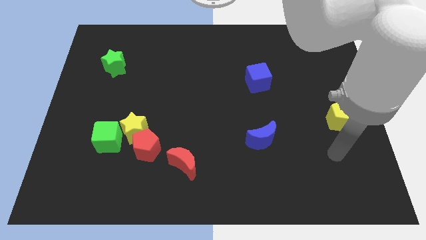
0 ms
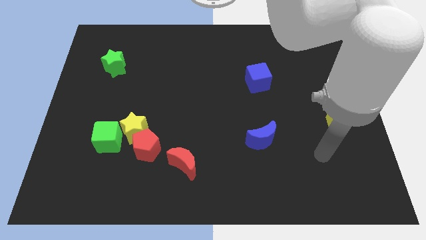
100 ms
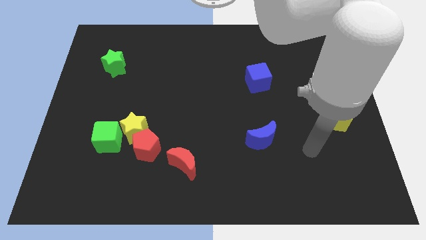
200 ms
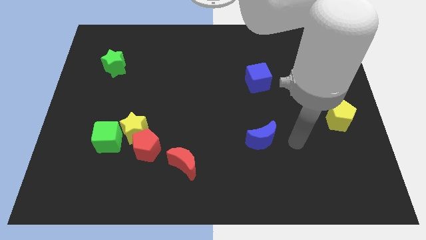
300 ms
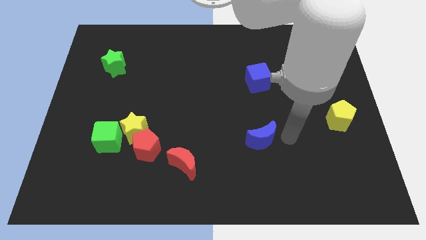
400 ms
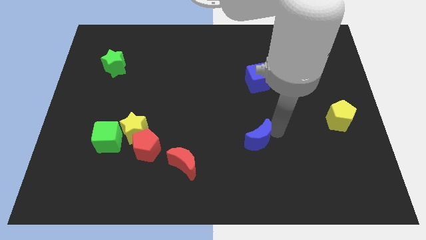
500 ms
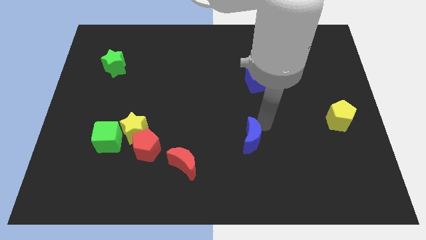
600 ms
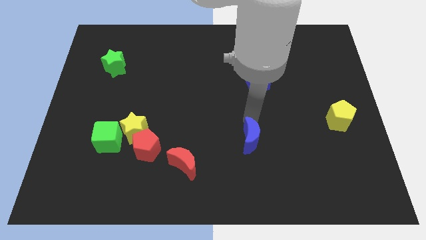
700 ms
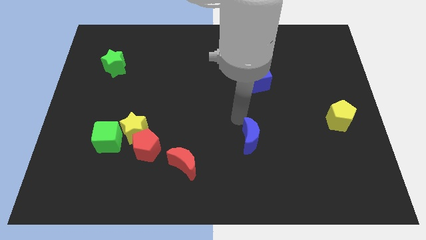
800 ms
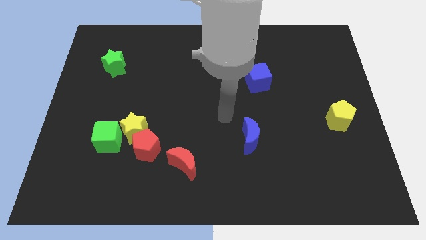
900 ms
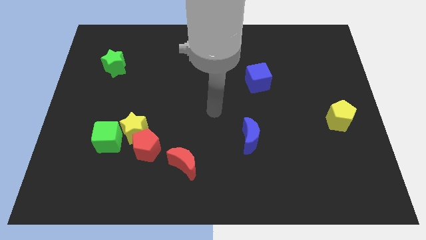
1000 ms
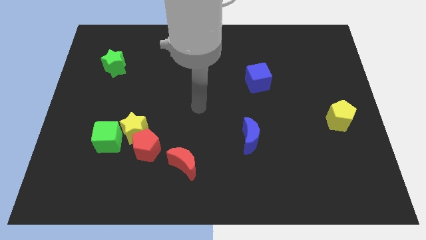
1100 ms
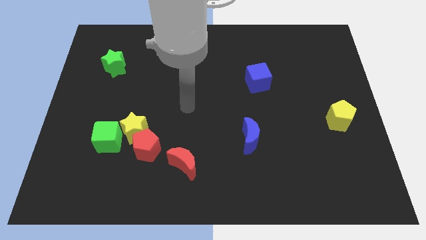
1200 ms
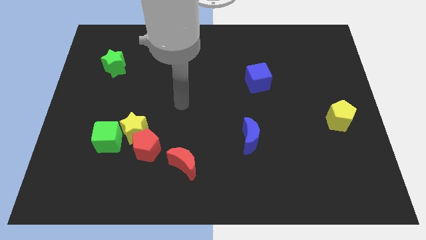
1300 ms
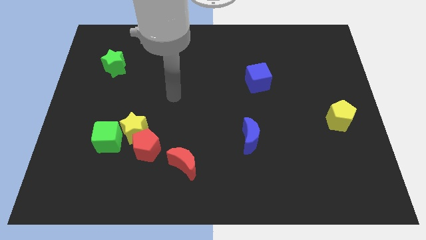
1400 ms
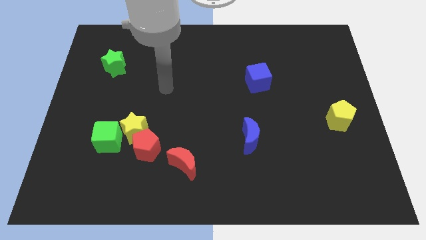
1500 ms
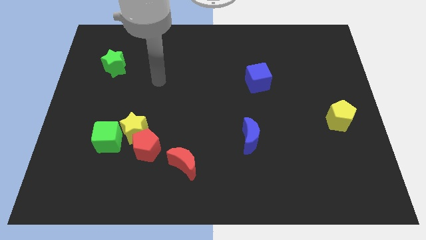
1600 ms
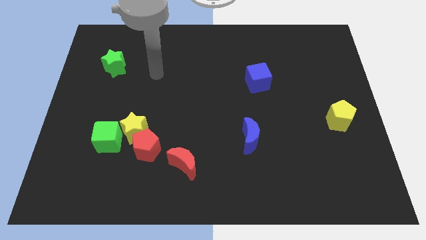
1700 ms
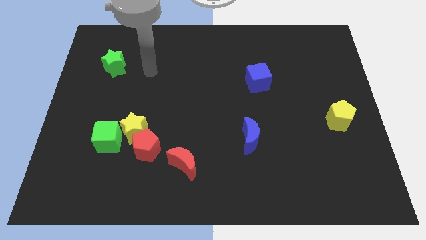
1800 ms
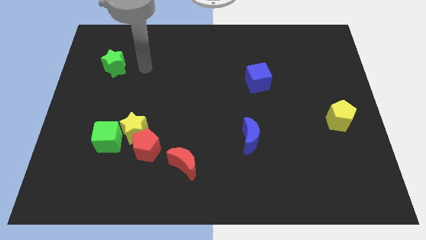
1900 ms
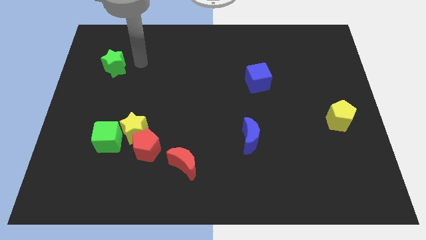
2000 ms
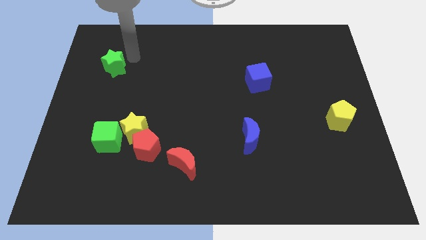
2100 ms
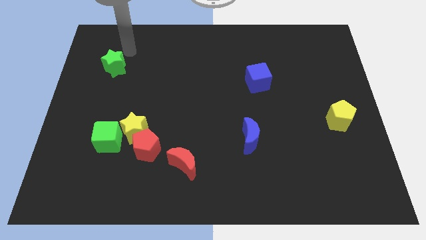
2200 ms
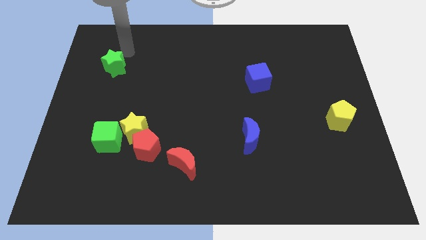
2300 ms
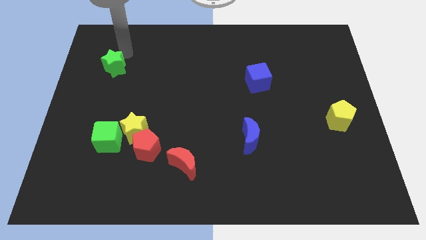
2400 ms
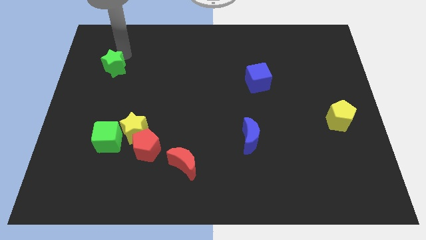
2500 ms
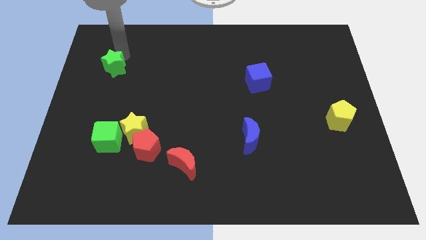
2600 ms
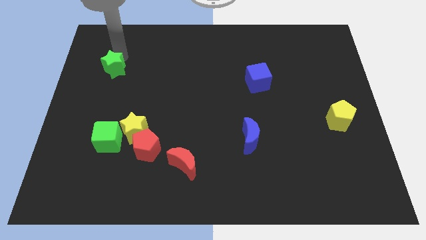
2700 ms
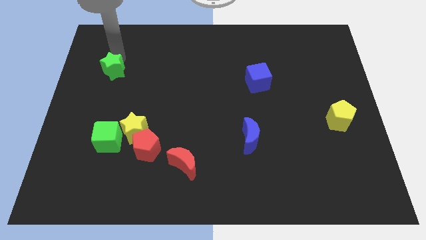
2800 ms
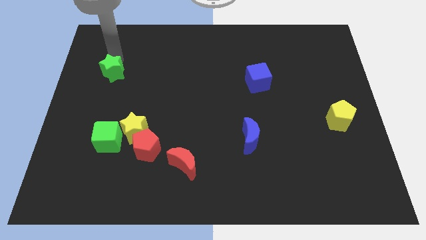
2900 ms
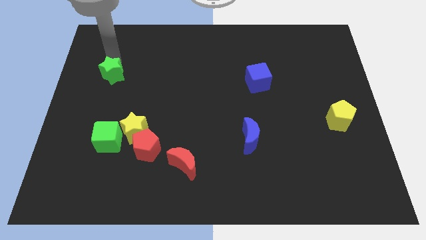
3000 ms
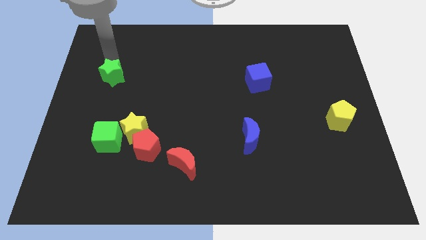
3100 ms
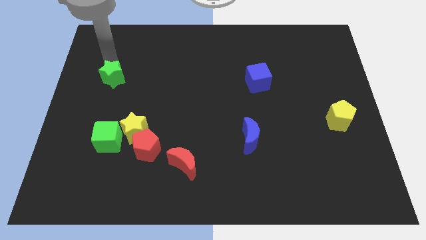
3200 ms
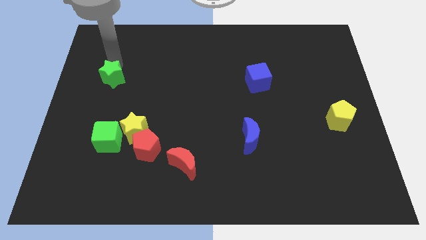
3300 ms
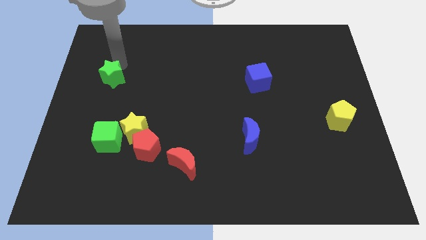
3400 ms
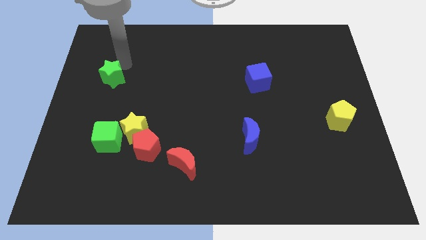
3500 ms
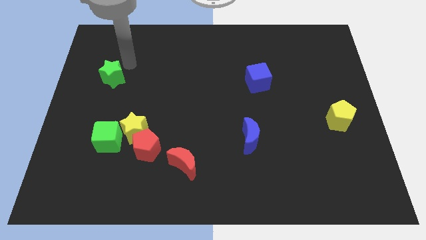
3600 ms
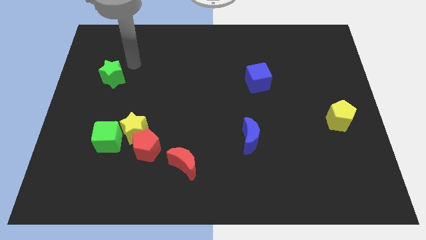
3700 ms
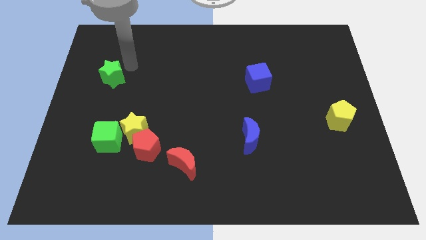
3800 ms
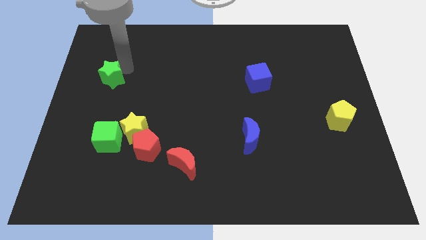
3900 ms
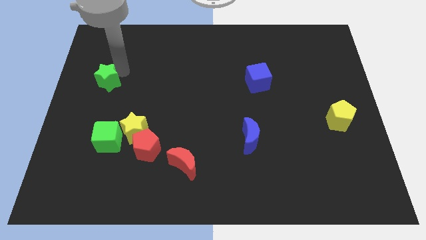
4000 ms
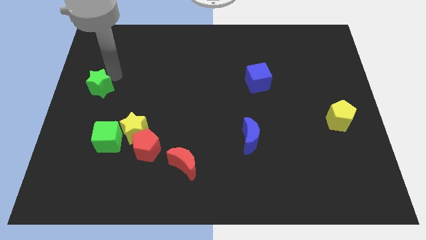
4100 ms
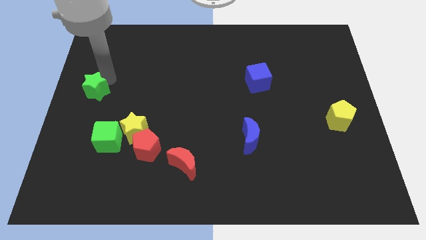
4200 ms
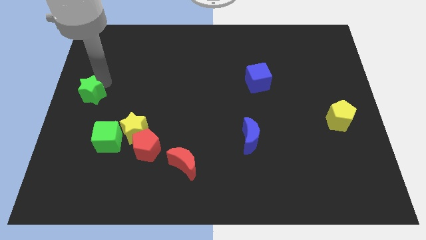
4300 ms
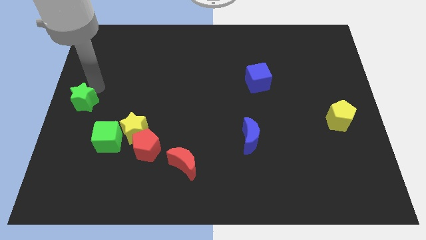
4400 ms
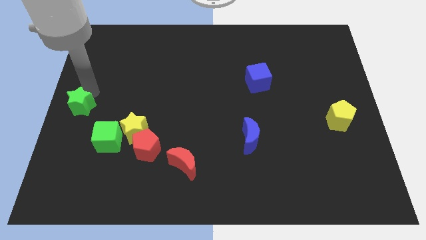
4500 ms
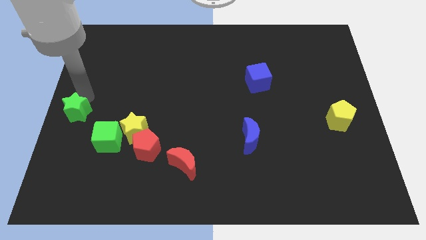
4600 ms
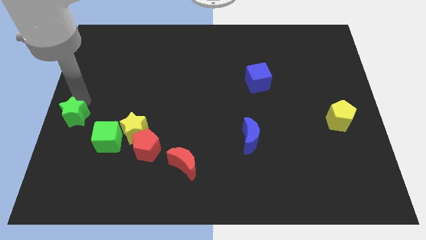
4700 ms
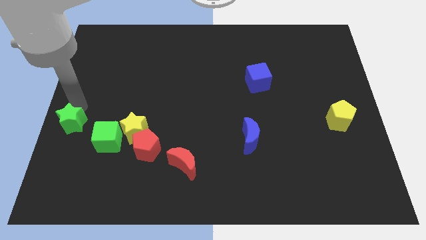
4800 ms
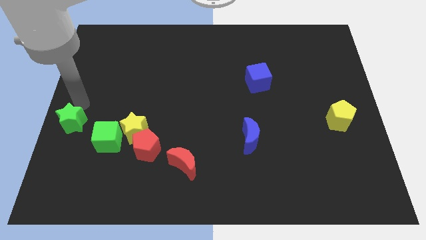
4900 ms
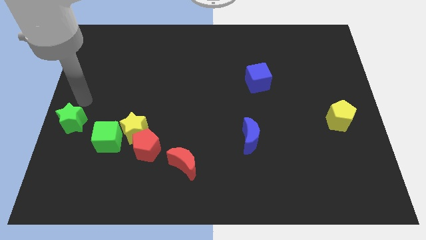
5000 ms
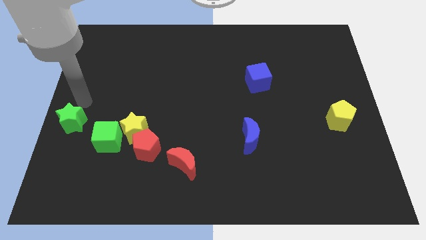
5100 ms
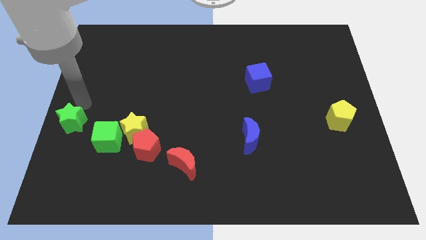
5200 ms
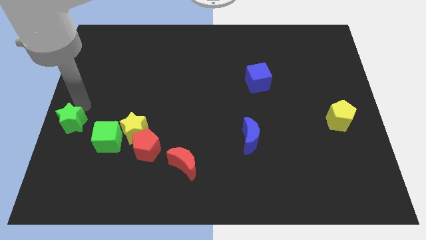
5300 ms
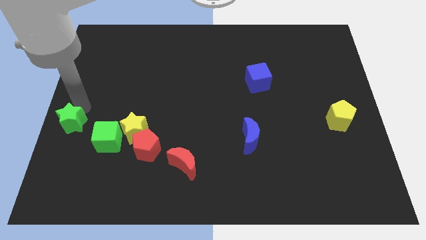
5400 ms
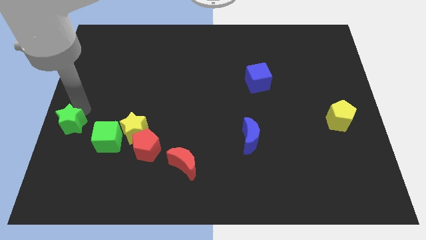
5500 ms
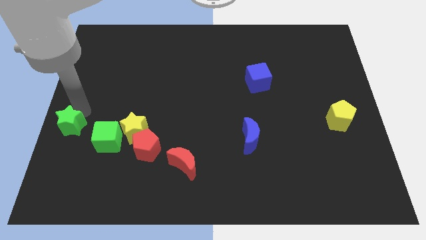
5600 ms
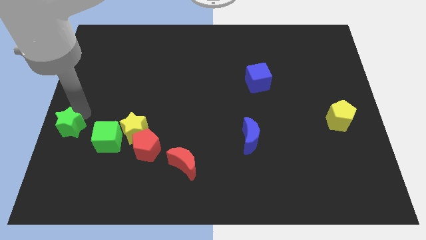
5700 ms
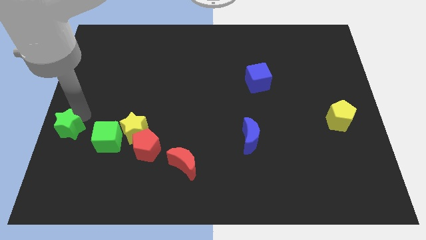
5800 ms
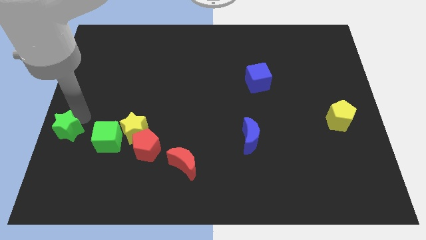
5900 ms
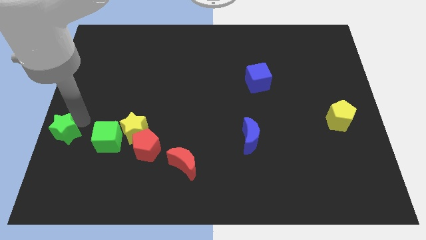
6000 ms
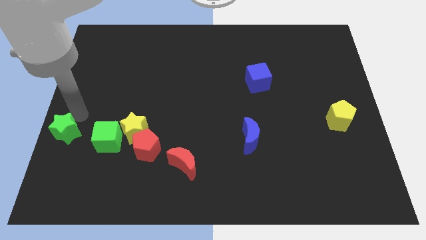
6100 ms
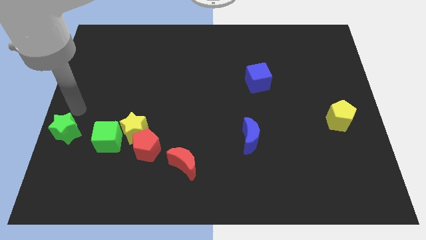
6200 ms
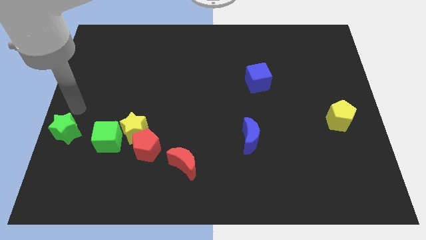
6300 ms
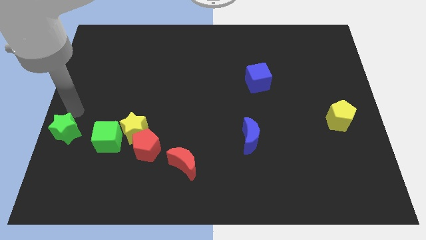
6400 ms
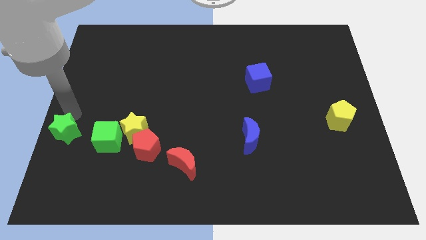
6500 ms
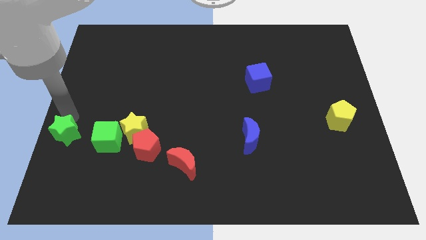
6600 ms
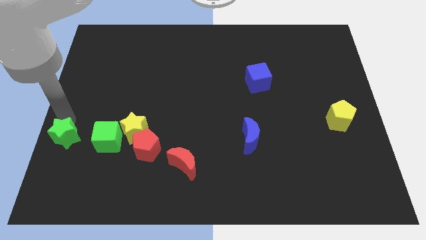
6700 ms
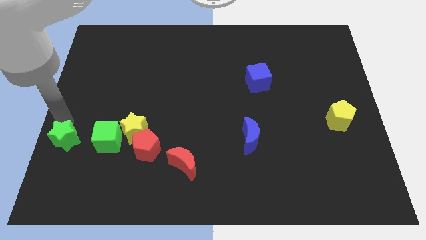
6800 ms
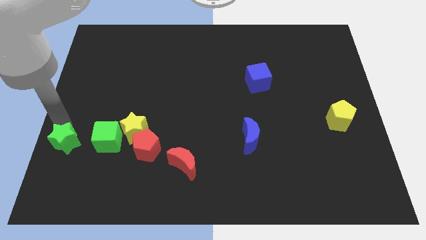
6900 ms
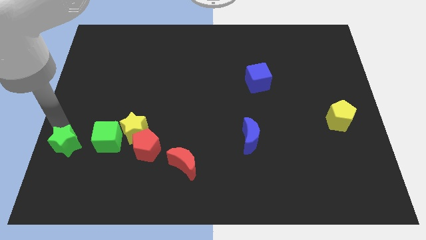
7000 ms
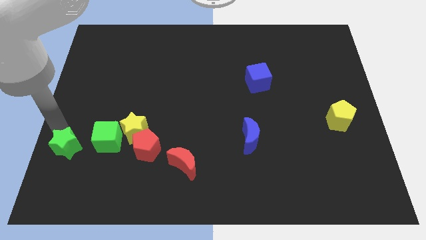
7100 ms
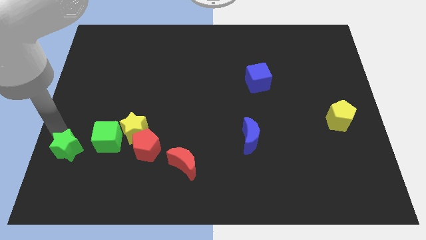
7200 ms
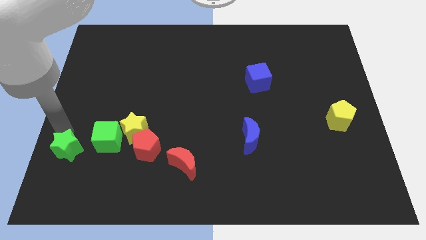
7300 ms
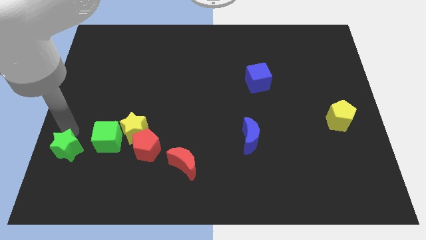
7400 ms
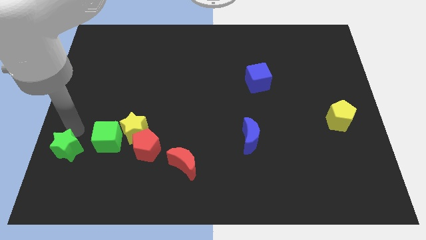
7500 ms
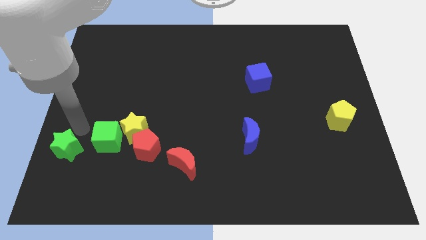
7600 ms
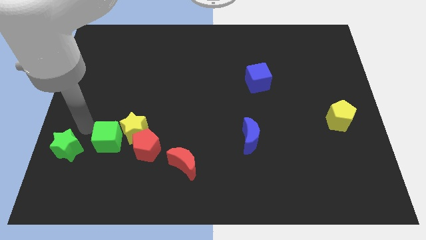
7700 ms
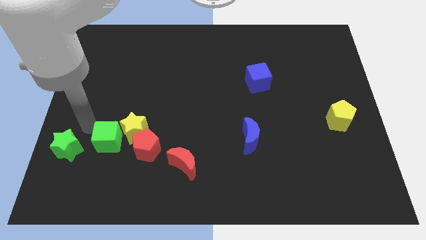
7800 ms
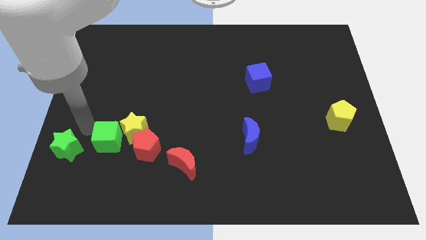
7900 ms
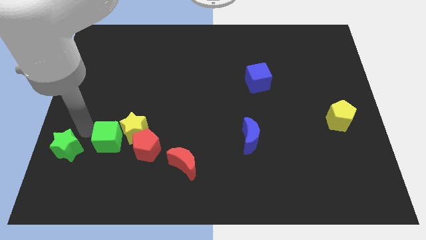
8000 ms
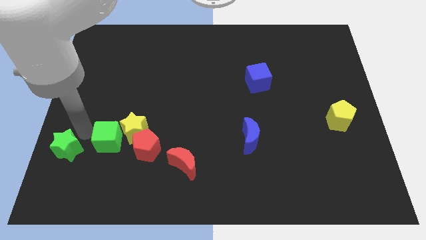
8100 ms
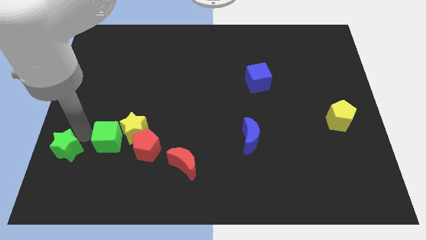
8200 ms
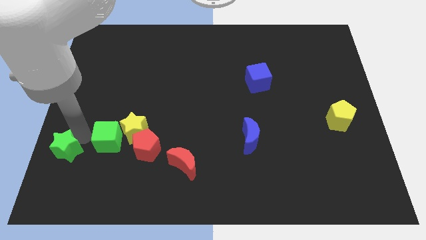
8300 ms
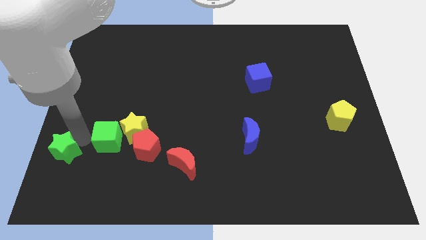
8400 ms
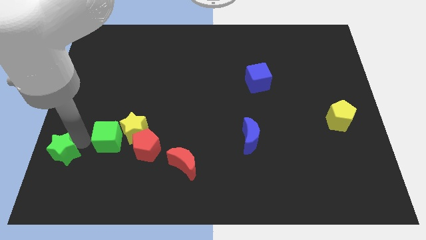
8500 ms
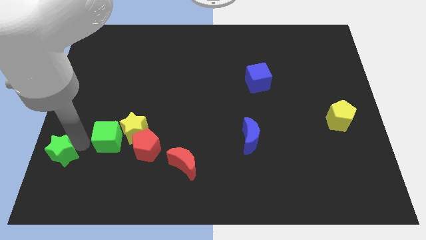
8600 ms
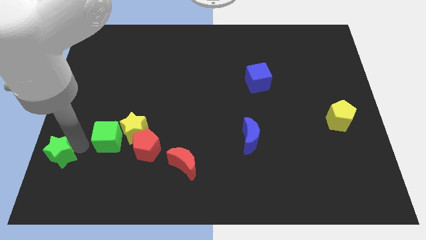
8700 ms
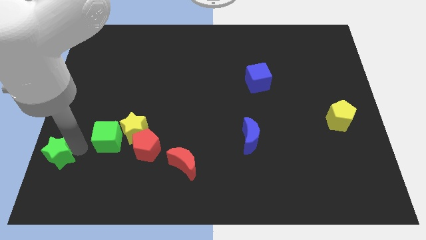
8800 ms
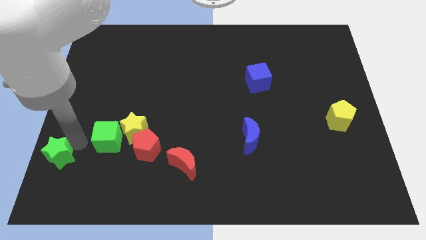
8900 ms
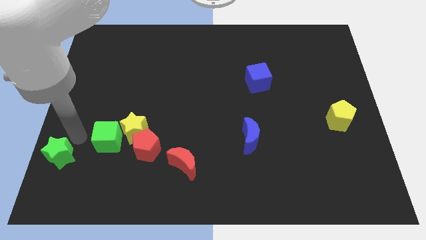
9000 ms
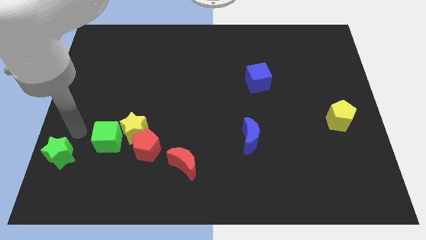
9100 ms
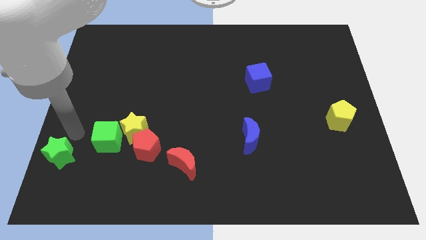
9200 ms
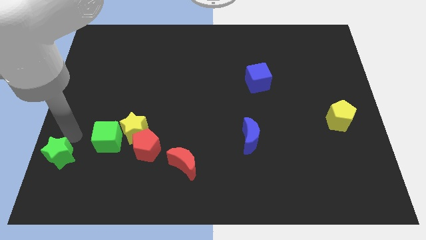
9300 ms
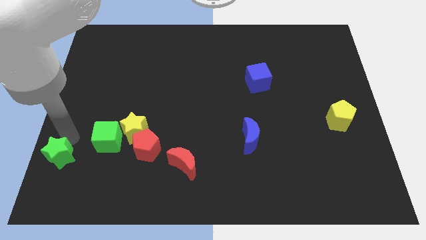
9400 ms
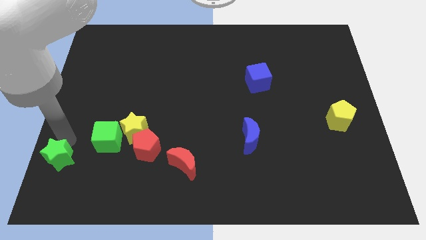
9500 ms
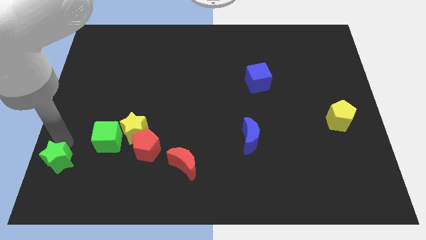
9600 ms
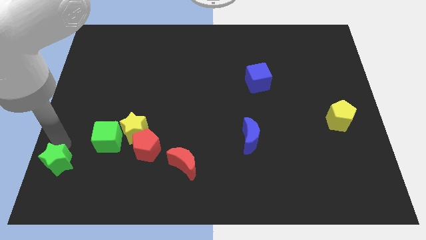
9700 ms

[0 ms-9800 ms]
move the green star to the lower left corner
